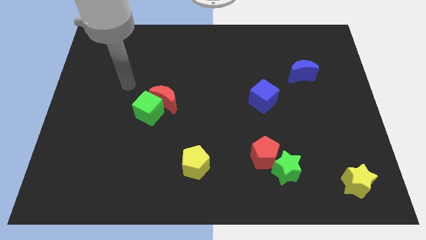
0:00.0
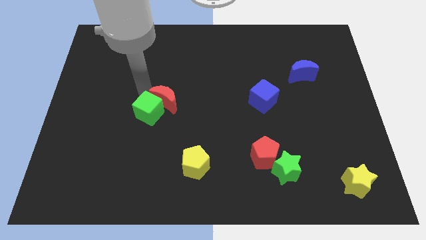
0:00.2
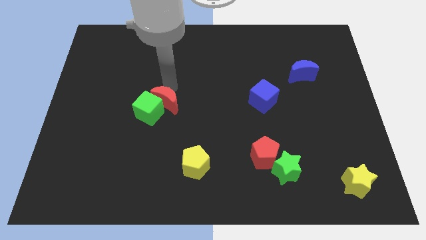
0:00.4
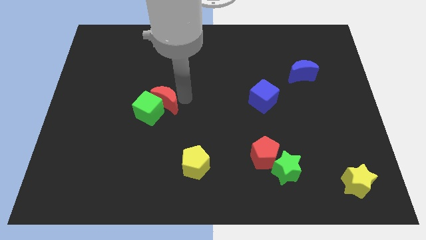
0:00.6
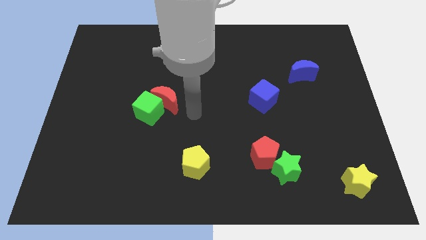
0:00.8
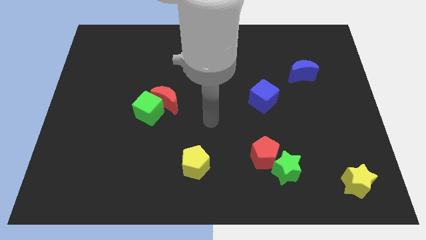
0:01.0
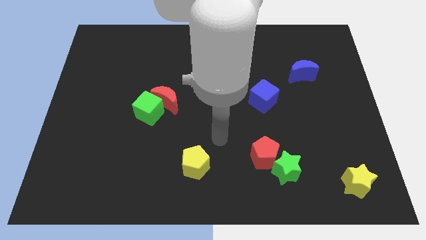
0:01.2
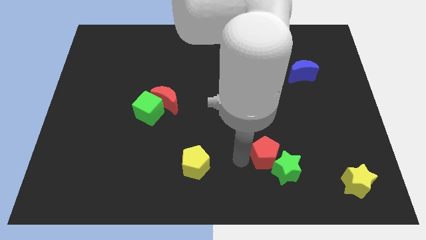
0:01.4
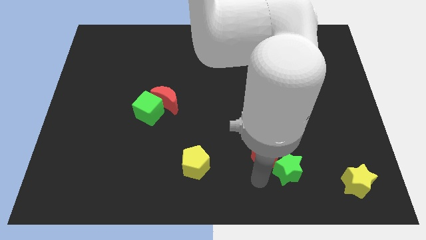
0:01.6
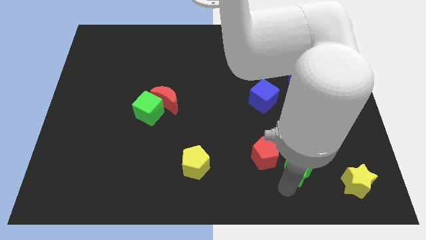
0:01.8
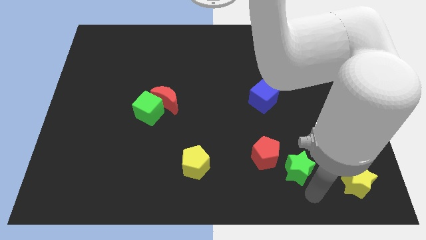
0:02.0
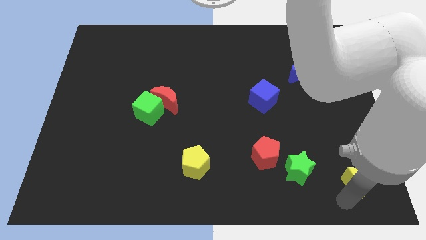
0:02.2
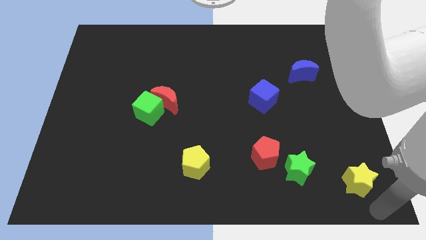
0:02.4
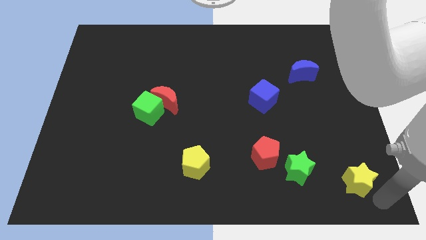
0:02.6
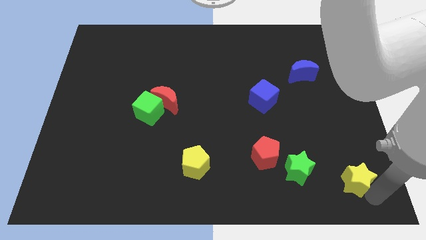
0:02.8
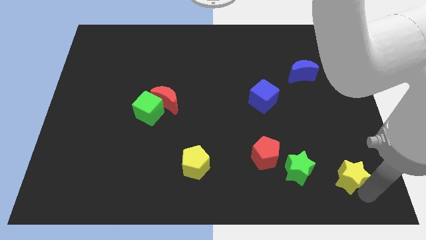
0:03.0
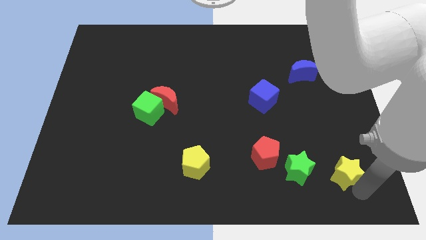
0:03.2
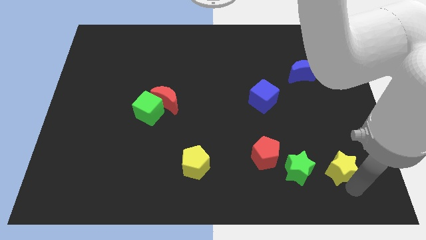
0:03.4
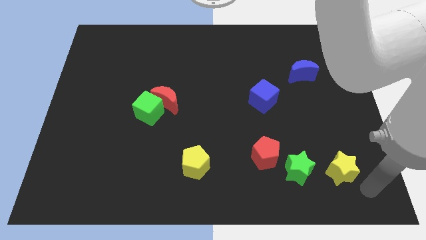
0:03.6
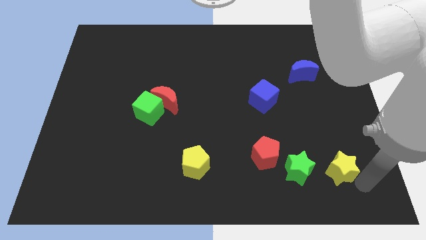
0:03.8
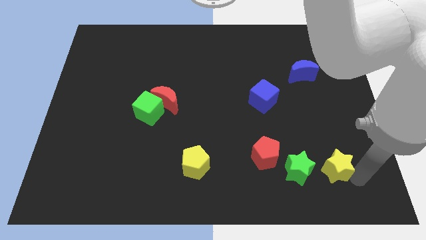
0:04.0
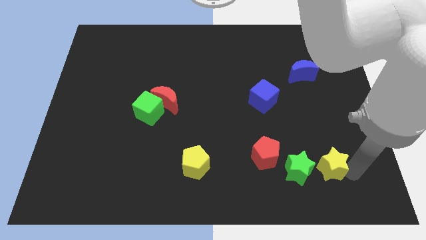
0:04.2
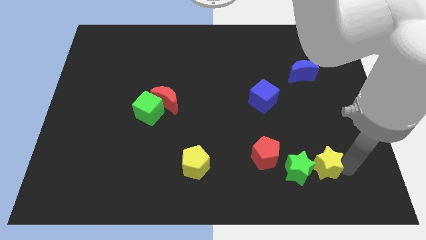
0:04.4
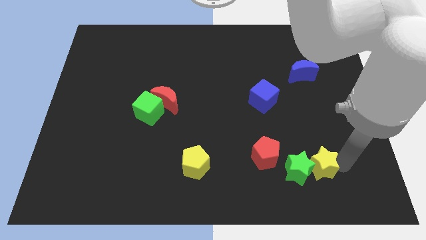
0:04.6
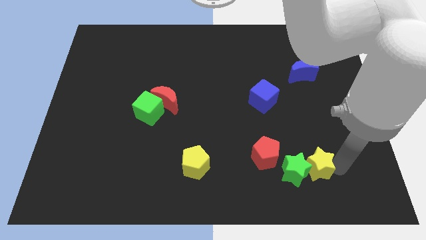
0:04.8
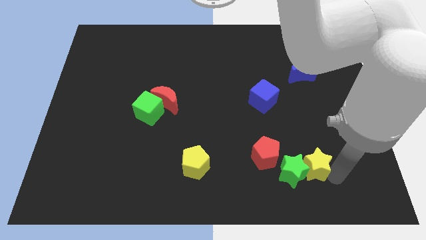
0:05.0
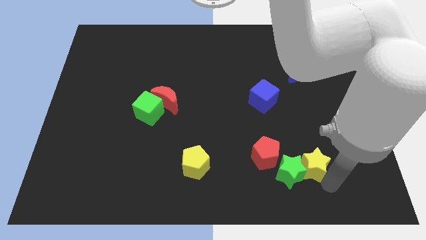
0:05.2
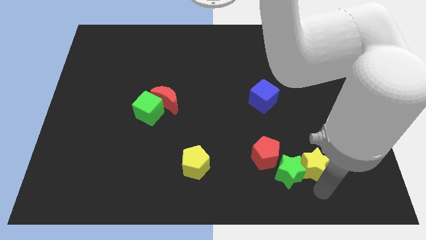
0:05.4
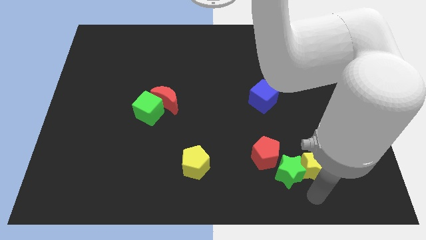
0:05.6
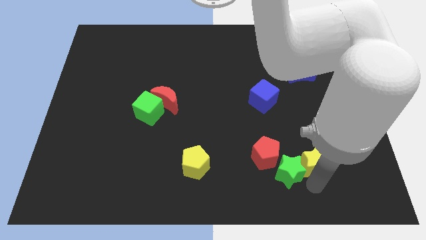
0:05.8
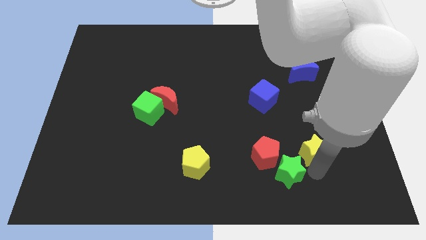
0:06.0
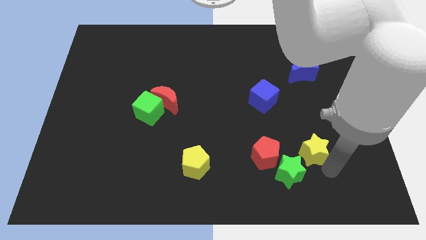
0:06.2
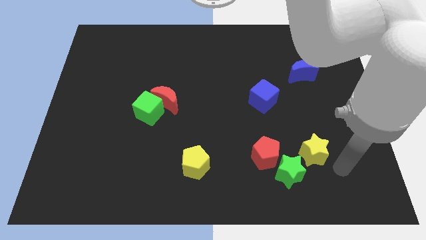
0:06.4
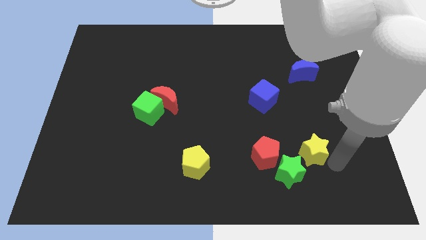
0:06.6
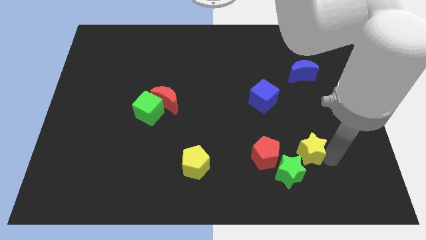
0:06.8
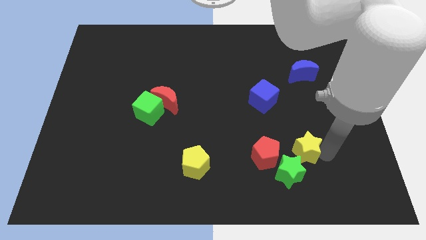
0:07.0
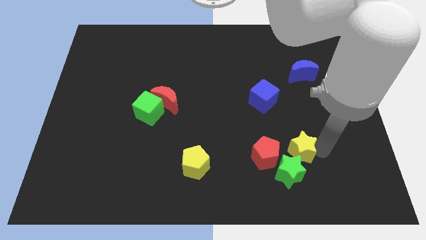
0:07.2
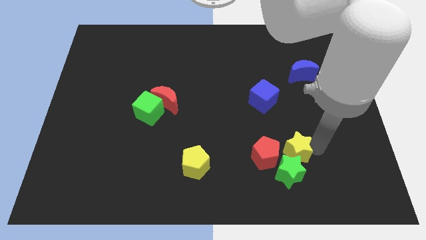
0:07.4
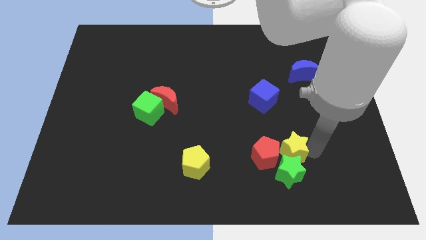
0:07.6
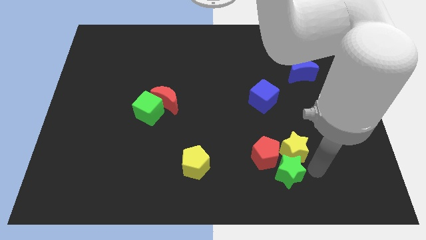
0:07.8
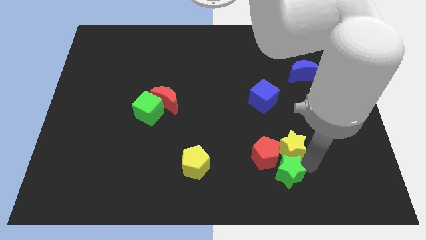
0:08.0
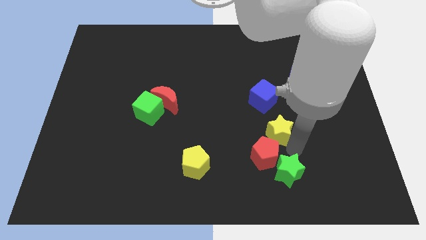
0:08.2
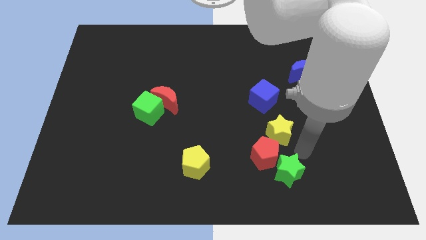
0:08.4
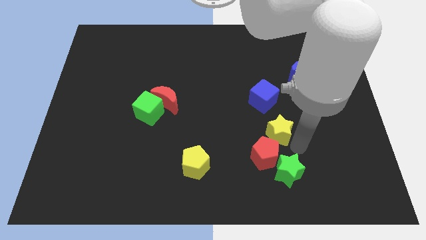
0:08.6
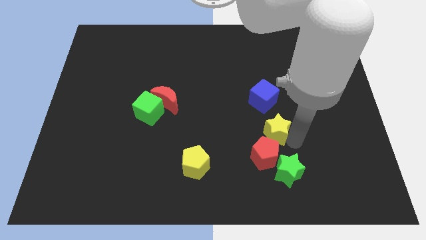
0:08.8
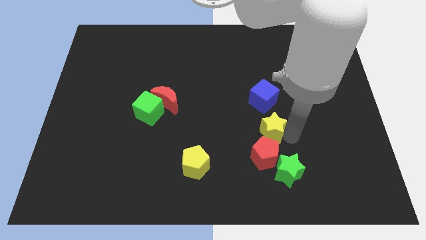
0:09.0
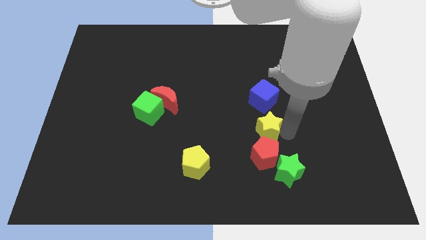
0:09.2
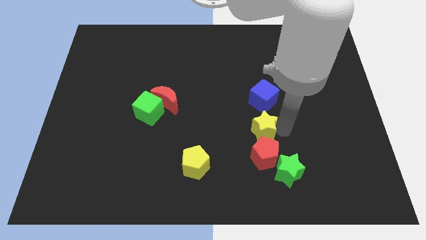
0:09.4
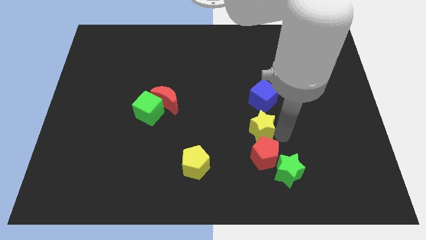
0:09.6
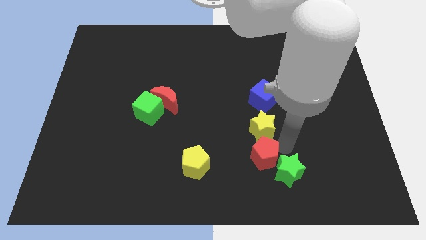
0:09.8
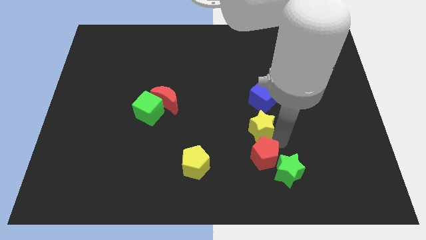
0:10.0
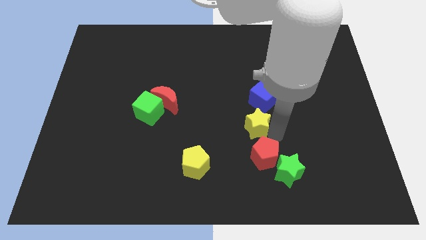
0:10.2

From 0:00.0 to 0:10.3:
slide the yellow star to the middle

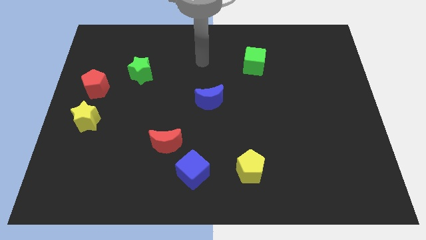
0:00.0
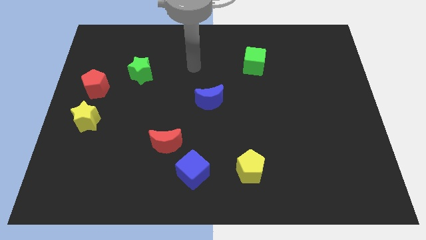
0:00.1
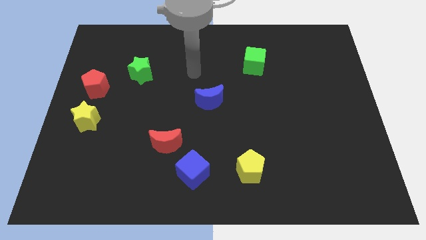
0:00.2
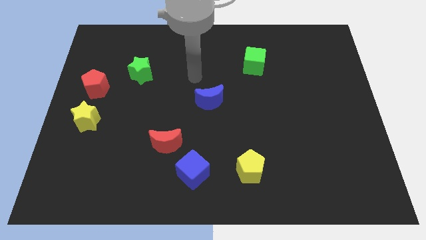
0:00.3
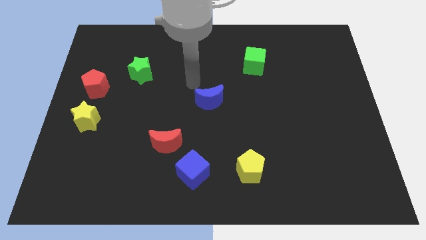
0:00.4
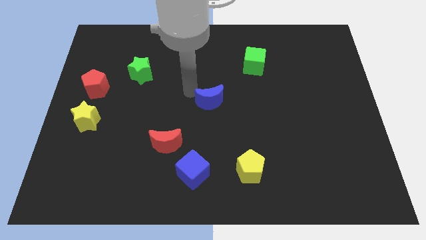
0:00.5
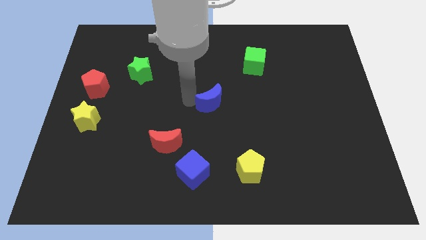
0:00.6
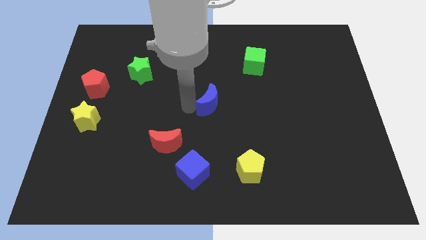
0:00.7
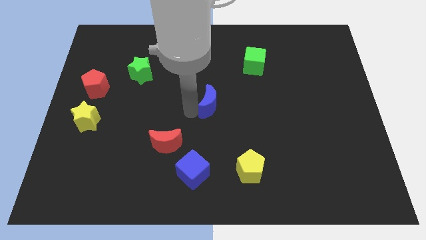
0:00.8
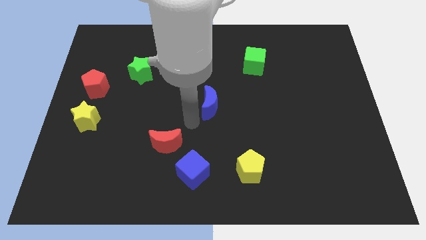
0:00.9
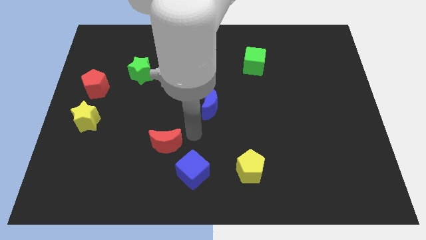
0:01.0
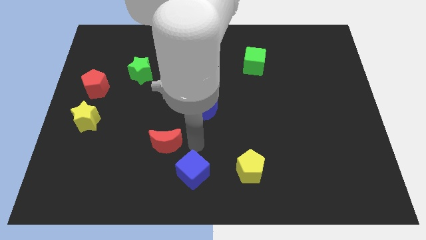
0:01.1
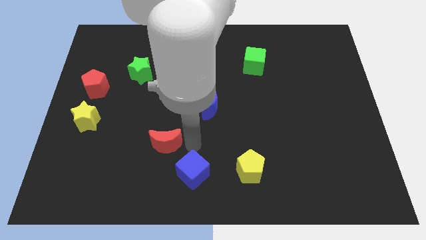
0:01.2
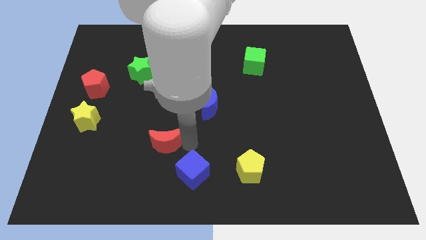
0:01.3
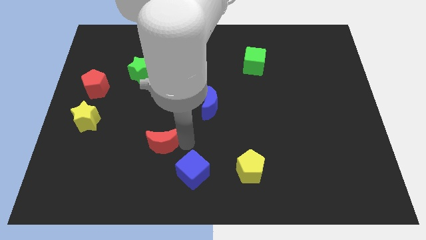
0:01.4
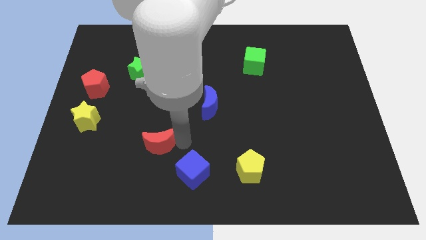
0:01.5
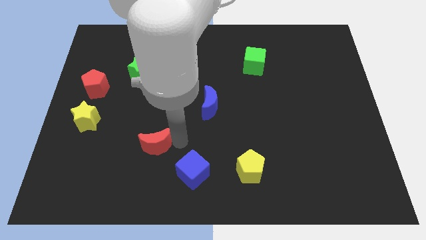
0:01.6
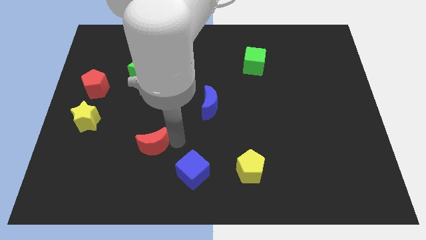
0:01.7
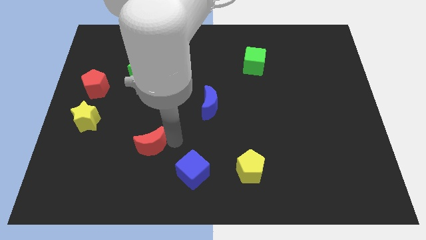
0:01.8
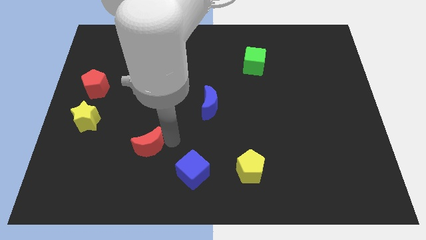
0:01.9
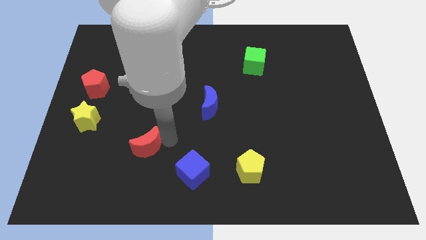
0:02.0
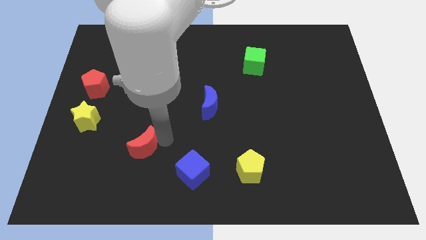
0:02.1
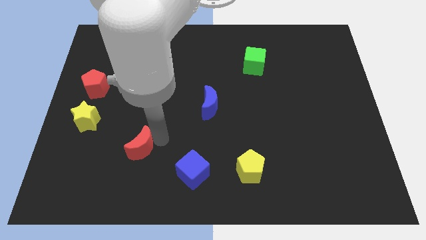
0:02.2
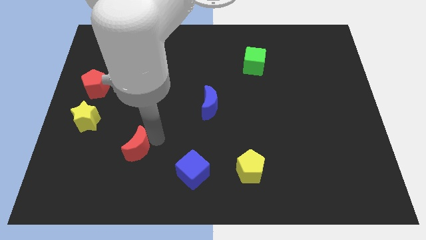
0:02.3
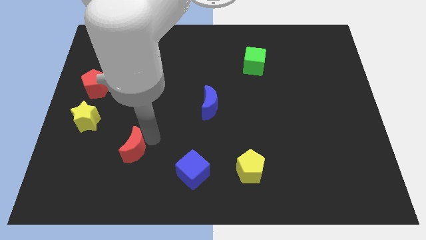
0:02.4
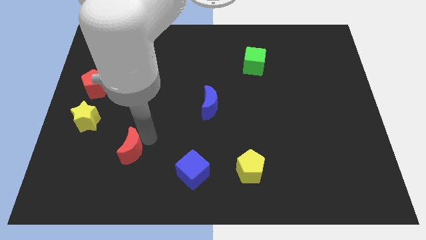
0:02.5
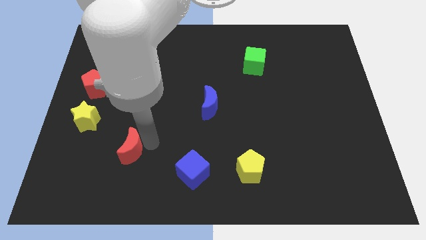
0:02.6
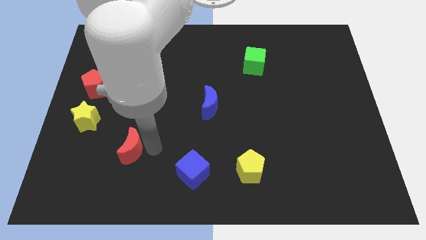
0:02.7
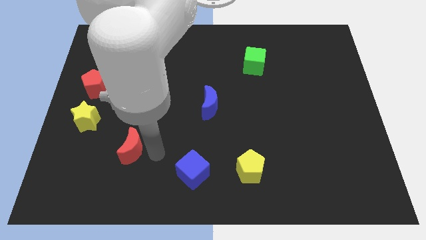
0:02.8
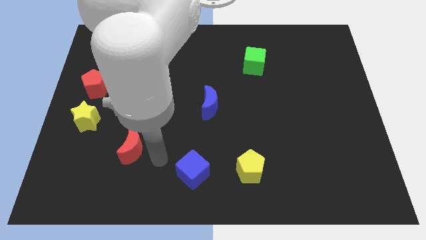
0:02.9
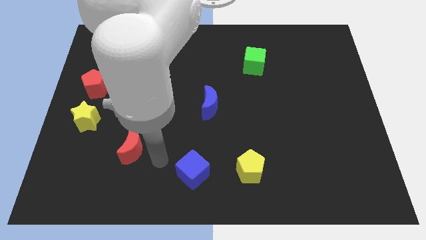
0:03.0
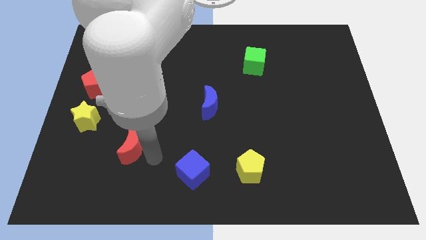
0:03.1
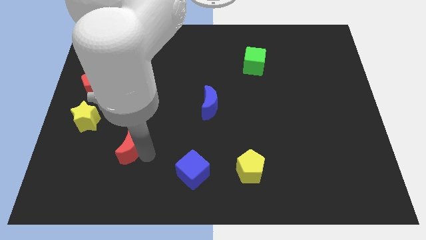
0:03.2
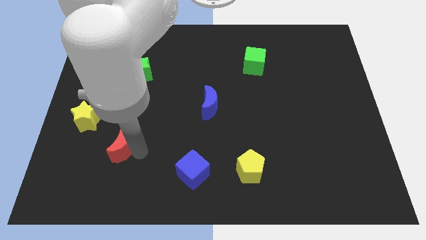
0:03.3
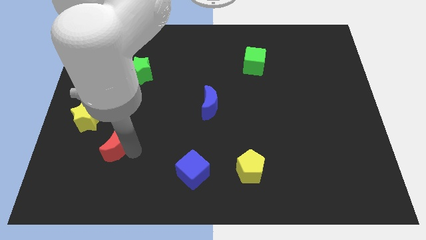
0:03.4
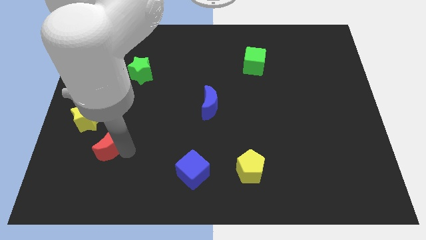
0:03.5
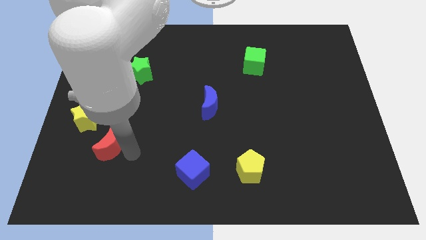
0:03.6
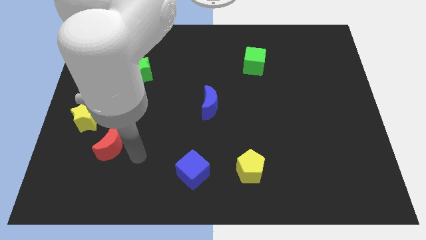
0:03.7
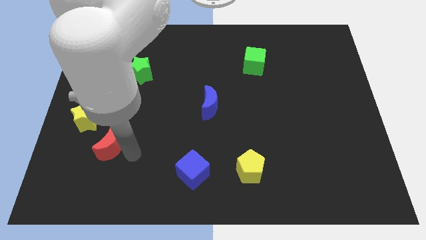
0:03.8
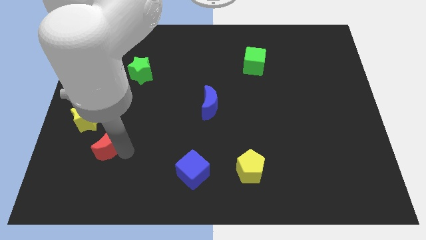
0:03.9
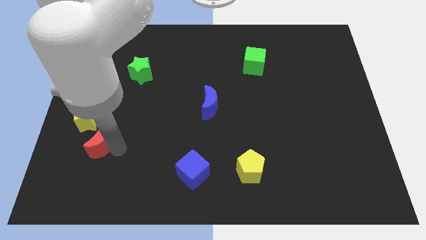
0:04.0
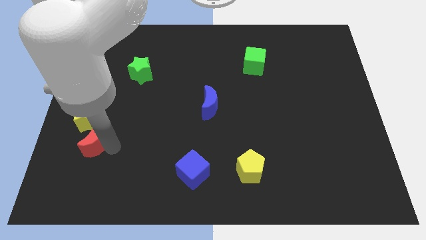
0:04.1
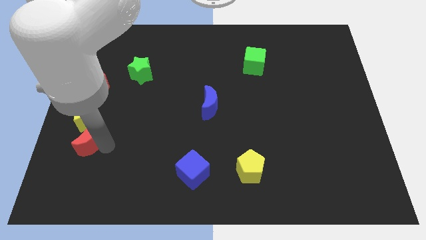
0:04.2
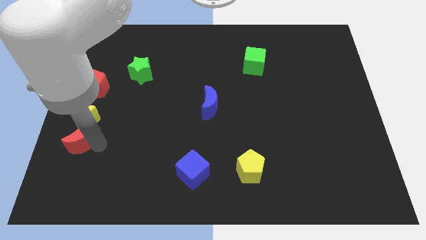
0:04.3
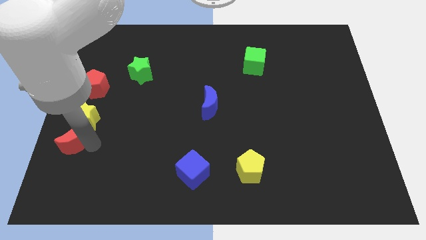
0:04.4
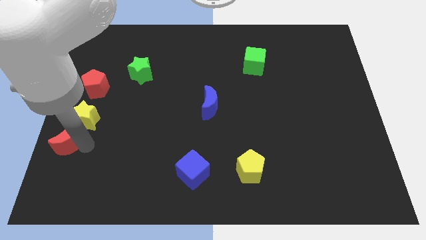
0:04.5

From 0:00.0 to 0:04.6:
push the red moon to the left side of the board
